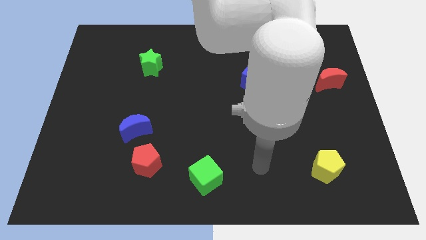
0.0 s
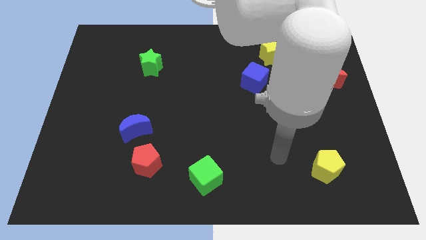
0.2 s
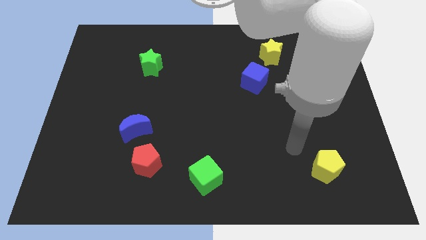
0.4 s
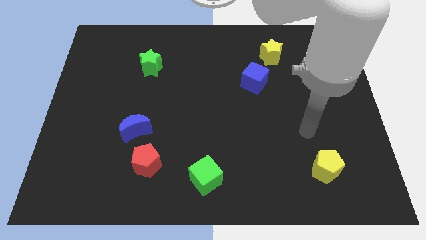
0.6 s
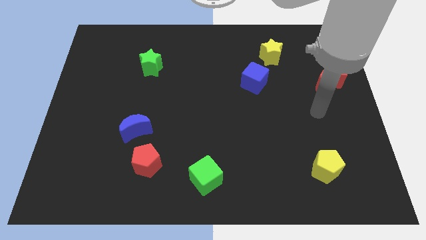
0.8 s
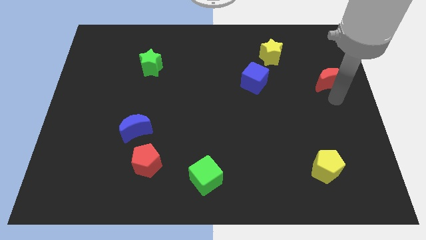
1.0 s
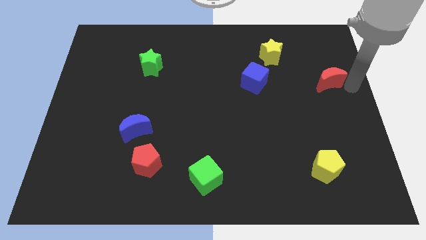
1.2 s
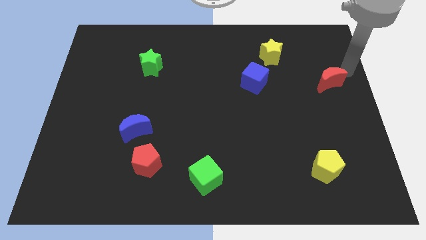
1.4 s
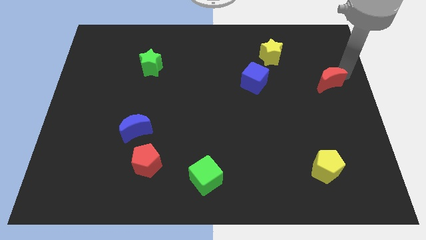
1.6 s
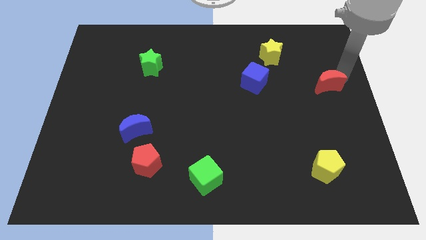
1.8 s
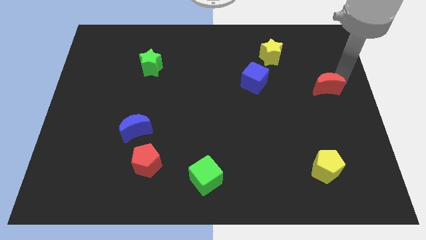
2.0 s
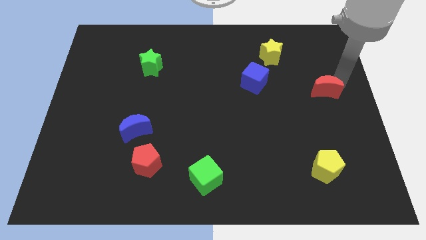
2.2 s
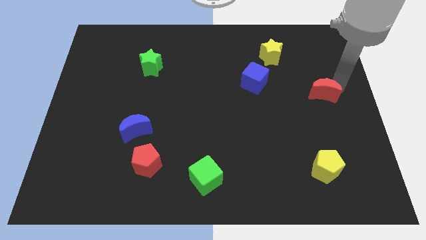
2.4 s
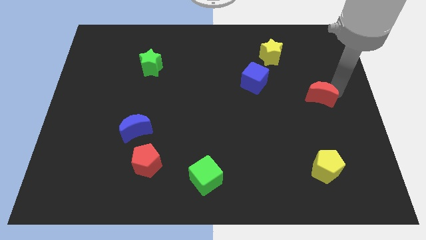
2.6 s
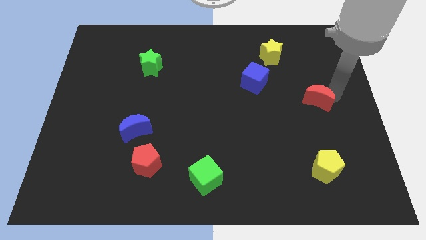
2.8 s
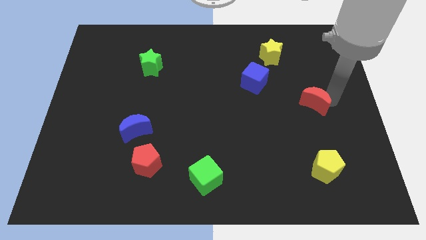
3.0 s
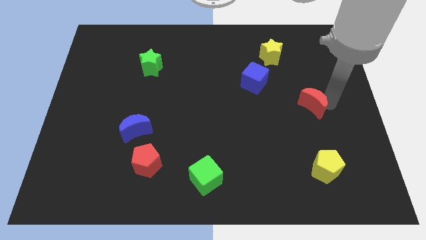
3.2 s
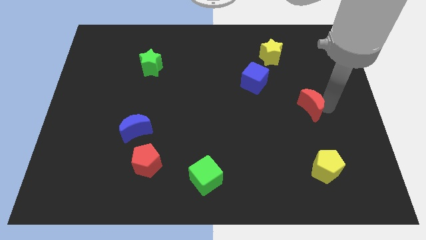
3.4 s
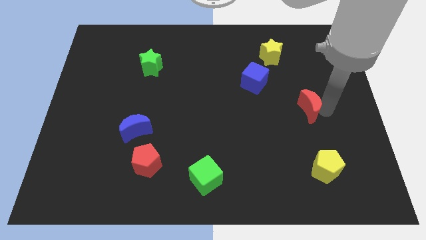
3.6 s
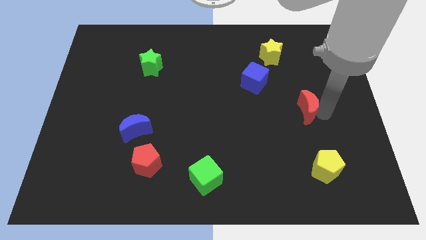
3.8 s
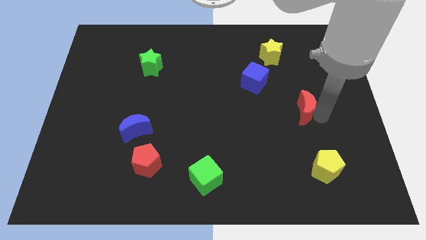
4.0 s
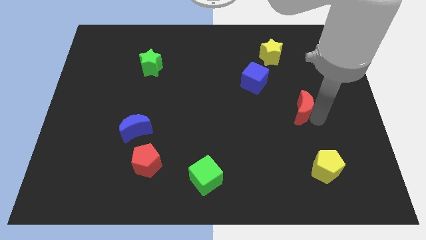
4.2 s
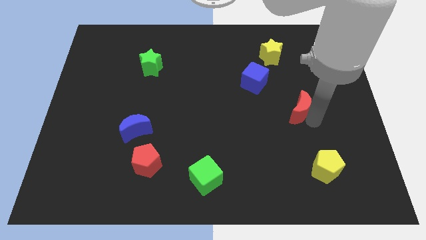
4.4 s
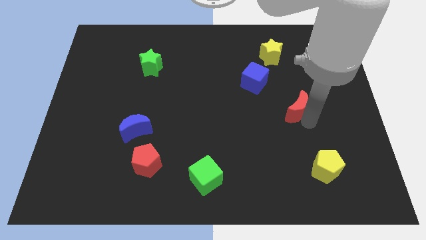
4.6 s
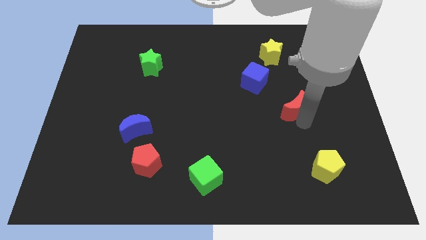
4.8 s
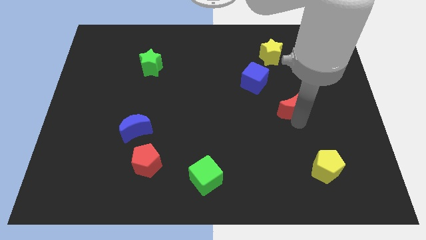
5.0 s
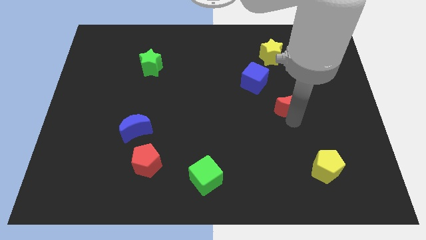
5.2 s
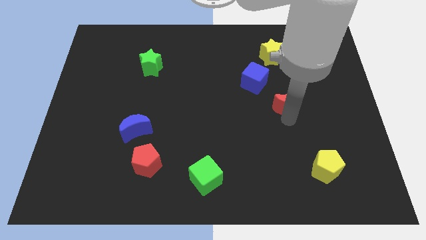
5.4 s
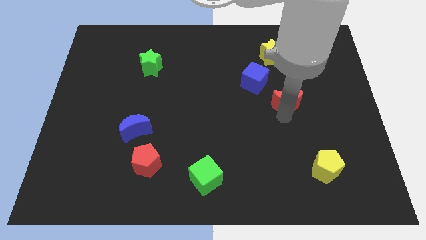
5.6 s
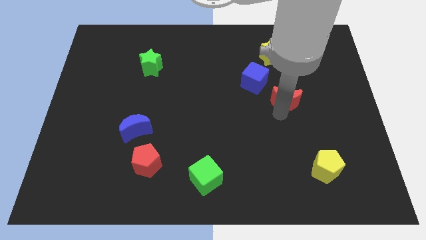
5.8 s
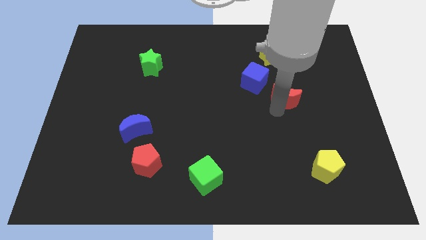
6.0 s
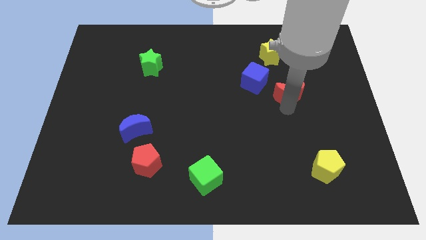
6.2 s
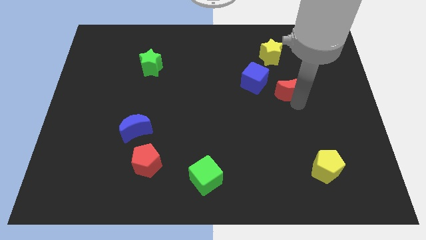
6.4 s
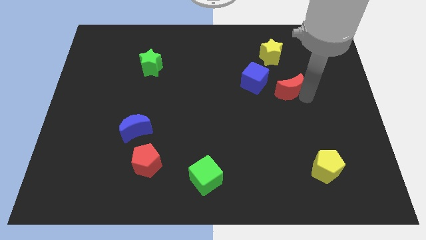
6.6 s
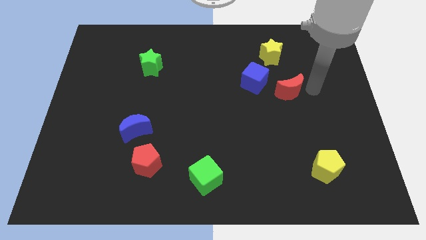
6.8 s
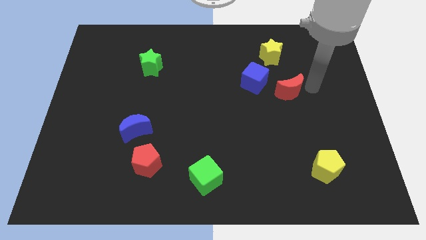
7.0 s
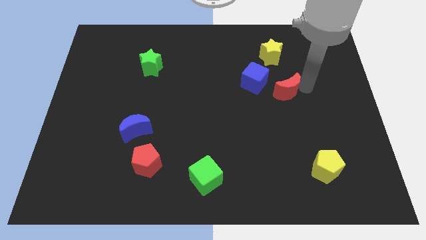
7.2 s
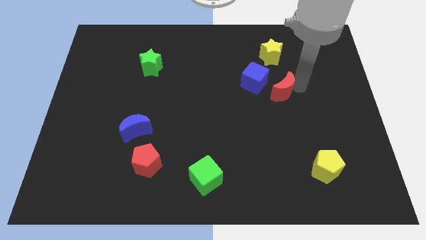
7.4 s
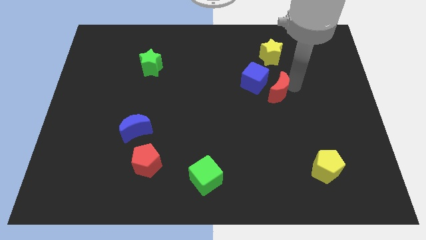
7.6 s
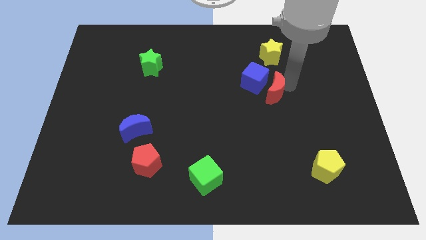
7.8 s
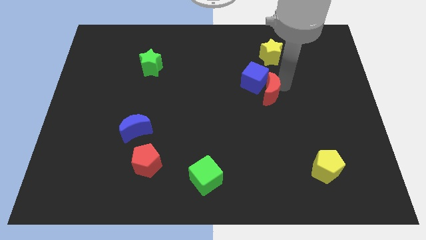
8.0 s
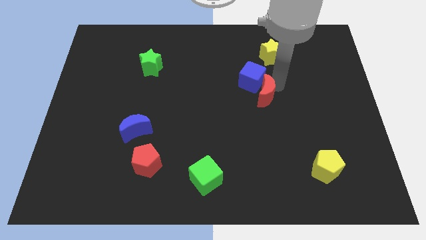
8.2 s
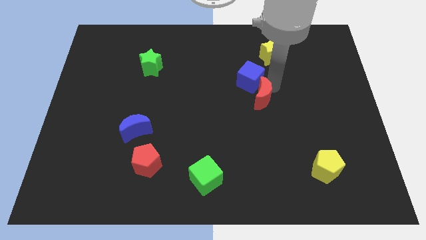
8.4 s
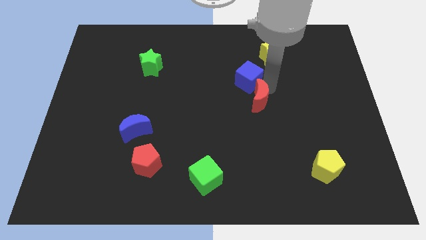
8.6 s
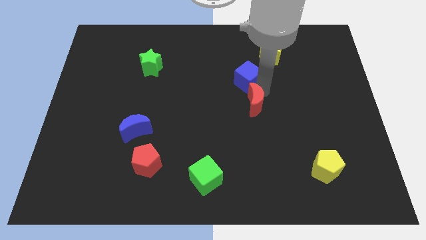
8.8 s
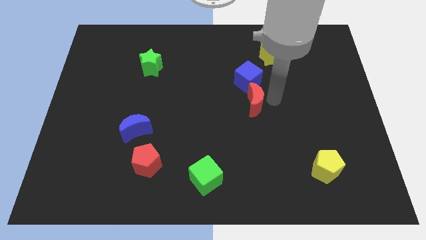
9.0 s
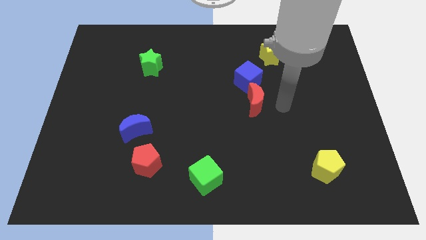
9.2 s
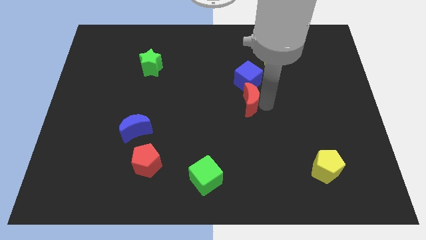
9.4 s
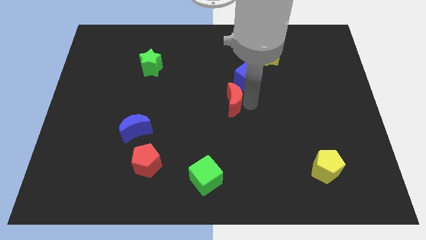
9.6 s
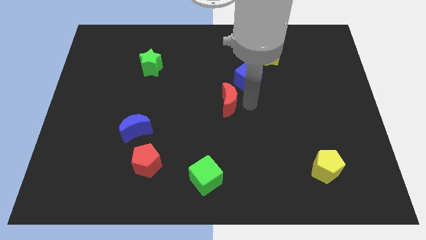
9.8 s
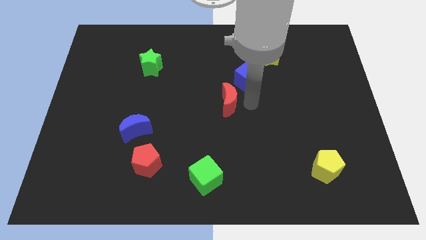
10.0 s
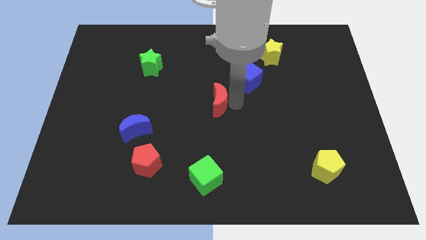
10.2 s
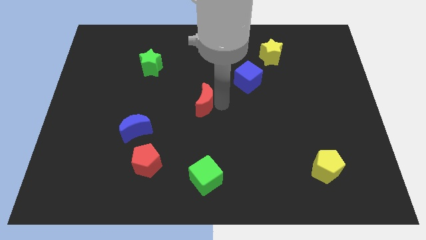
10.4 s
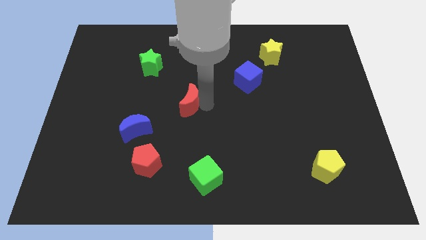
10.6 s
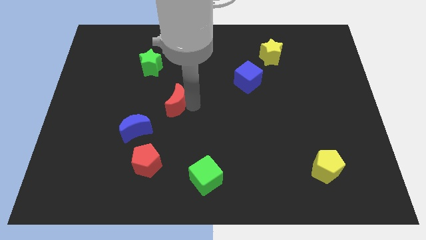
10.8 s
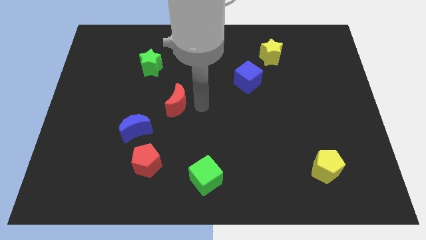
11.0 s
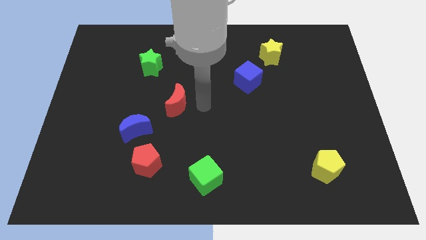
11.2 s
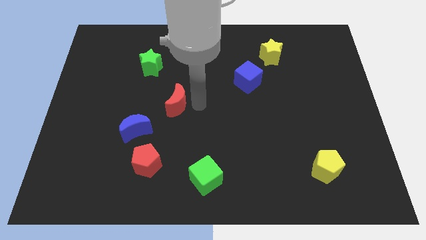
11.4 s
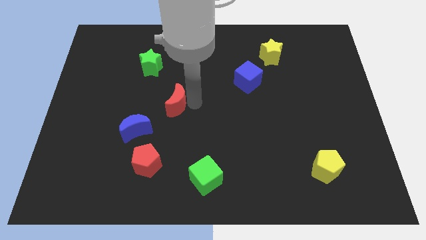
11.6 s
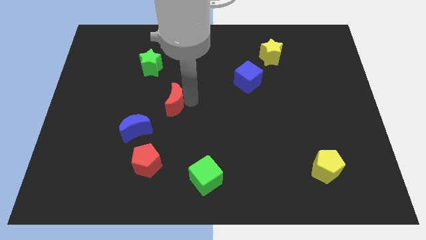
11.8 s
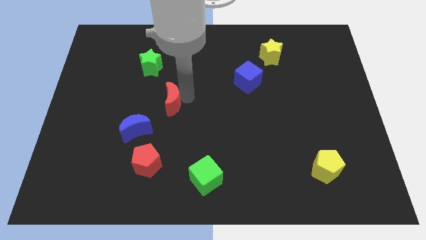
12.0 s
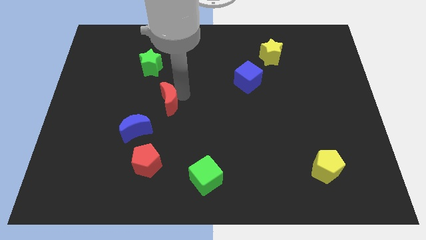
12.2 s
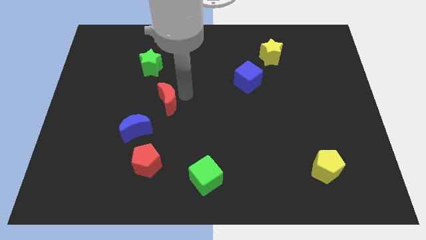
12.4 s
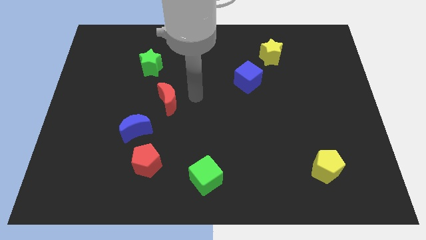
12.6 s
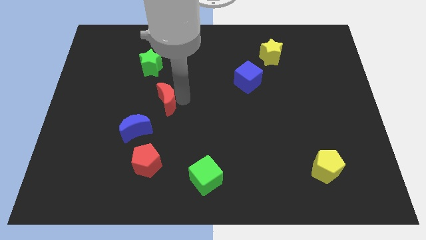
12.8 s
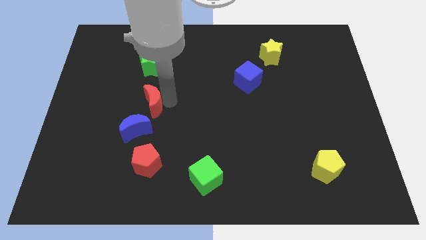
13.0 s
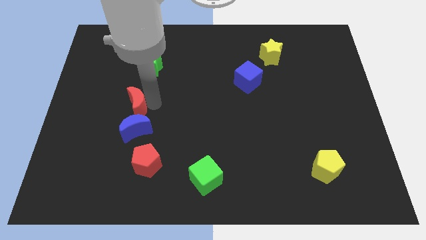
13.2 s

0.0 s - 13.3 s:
push the red moon to the top left of the blue moon
